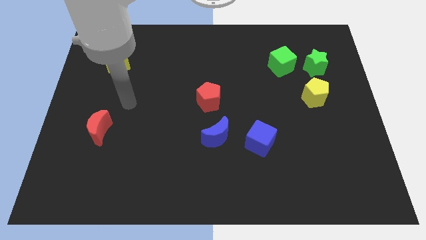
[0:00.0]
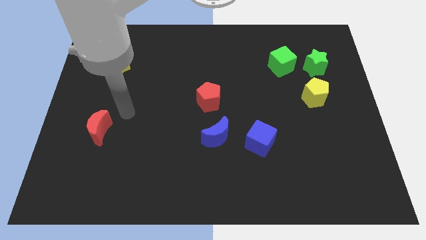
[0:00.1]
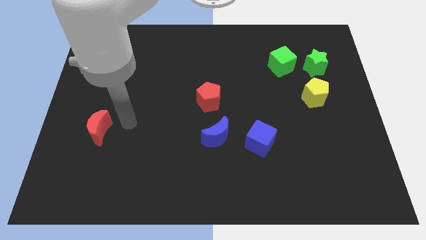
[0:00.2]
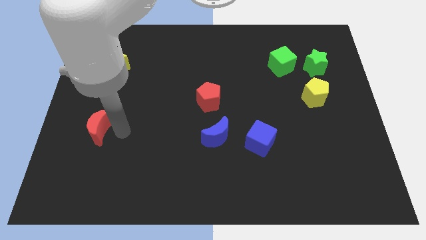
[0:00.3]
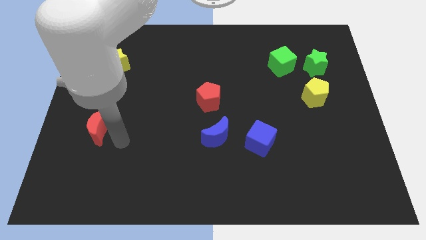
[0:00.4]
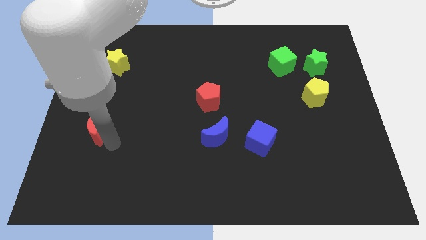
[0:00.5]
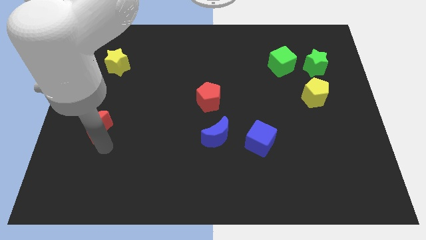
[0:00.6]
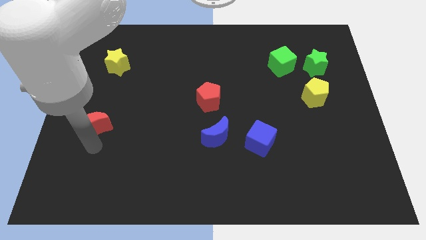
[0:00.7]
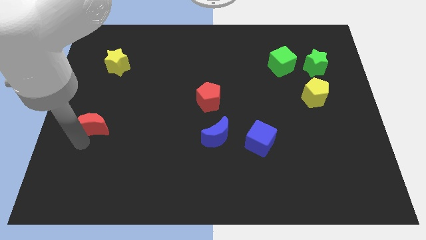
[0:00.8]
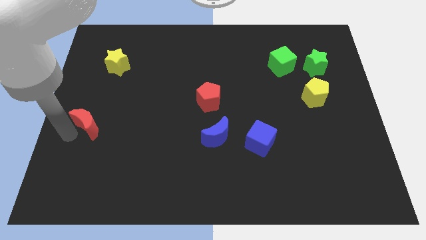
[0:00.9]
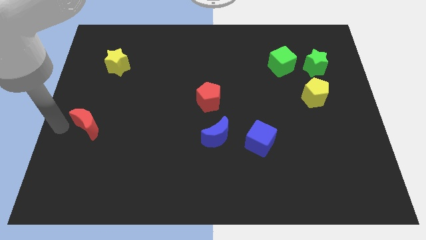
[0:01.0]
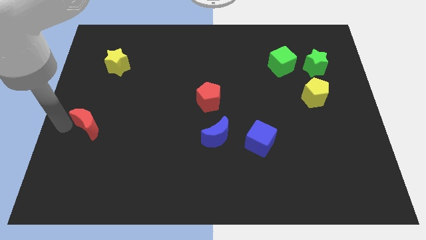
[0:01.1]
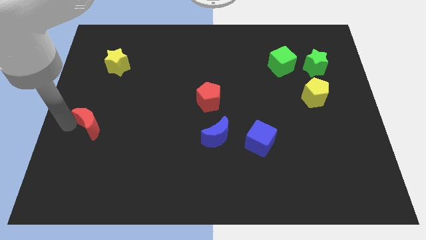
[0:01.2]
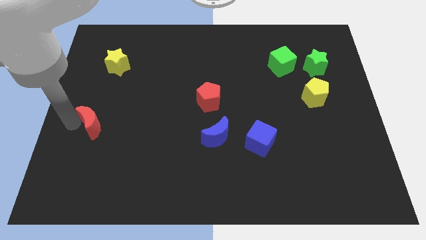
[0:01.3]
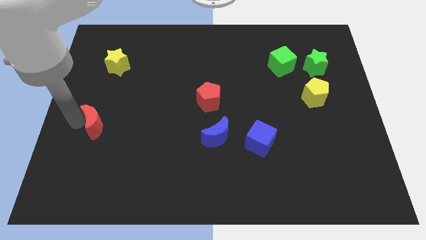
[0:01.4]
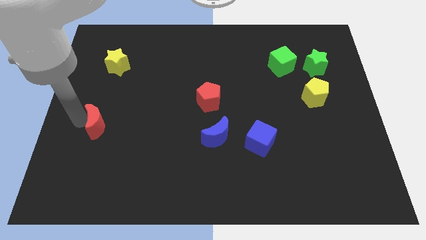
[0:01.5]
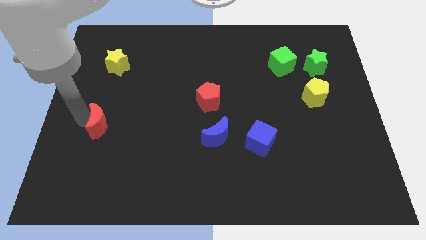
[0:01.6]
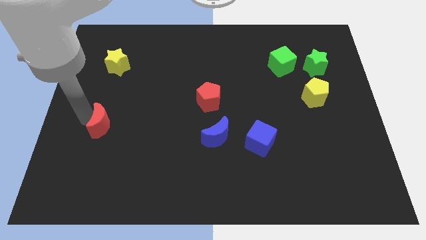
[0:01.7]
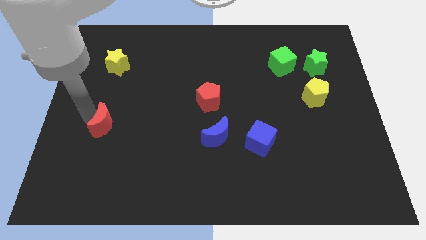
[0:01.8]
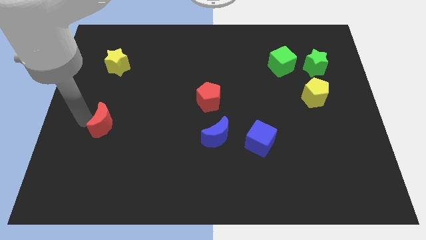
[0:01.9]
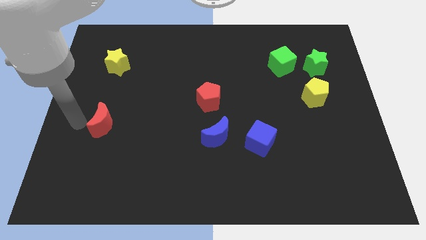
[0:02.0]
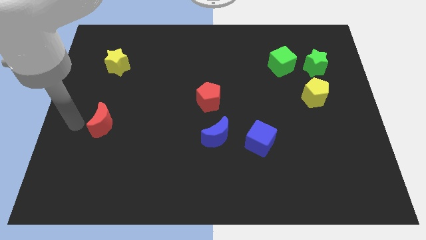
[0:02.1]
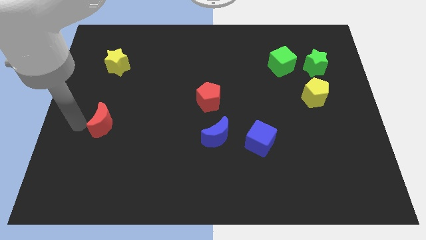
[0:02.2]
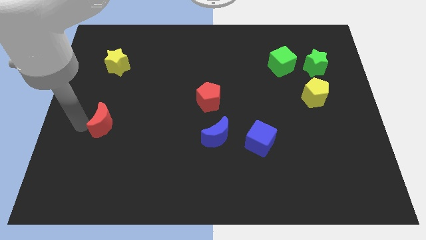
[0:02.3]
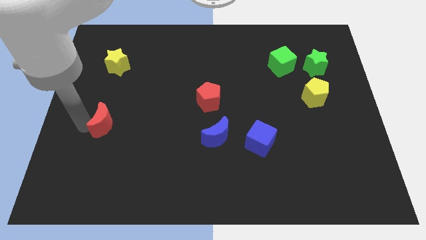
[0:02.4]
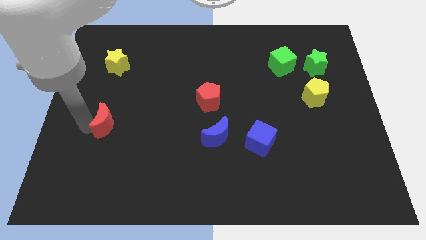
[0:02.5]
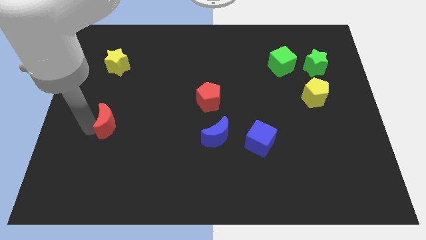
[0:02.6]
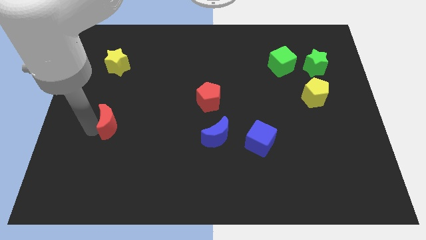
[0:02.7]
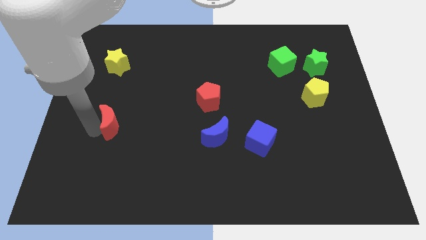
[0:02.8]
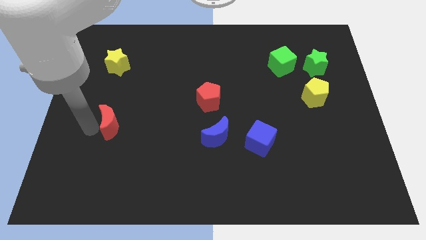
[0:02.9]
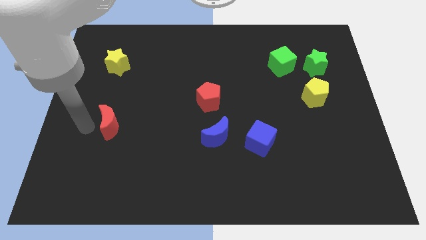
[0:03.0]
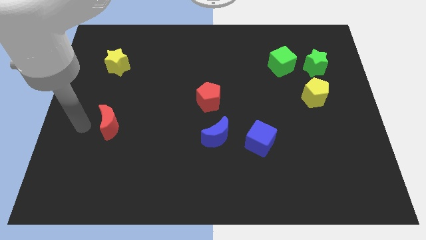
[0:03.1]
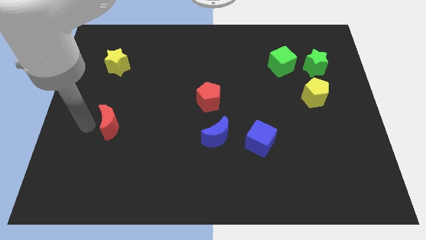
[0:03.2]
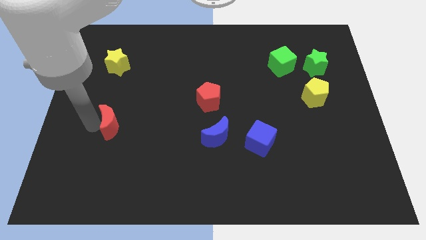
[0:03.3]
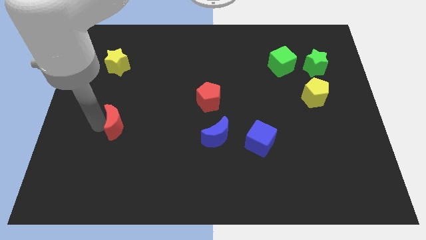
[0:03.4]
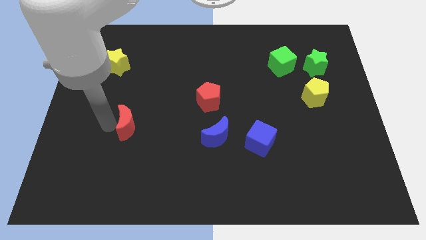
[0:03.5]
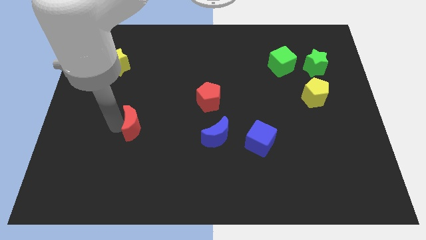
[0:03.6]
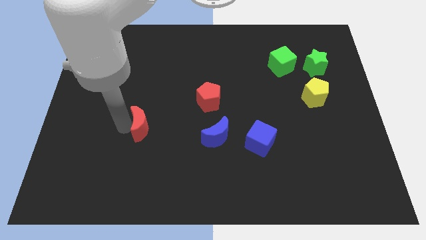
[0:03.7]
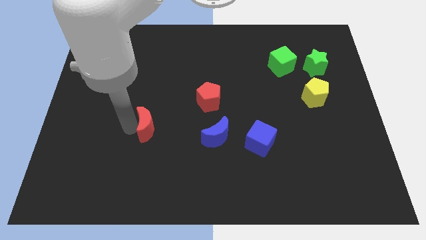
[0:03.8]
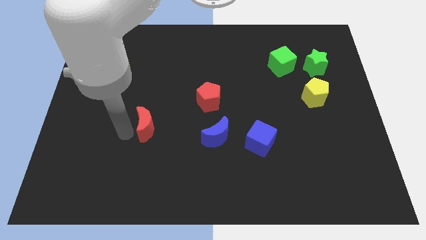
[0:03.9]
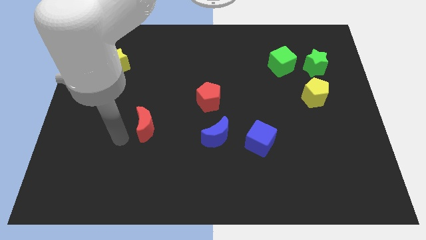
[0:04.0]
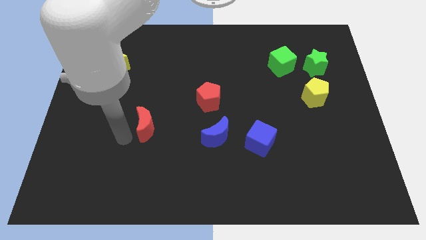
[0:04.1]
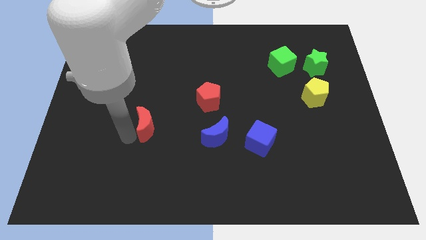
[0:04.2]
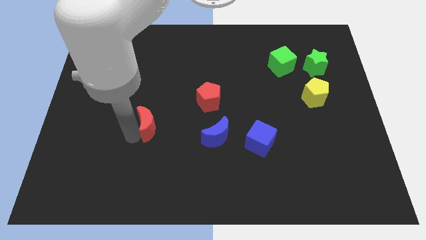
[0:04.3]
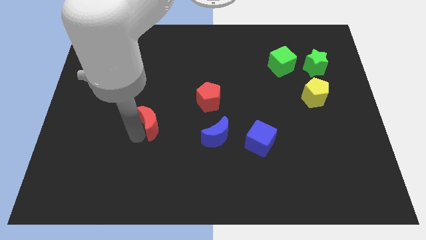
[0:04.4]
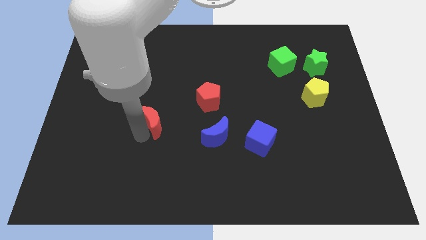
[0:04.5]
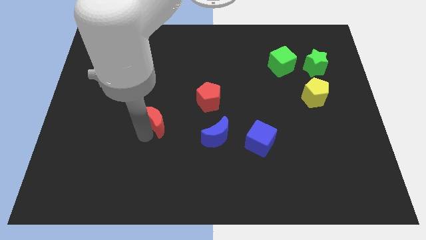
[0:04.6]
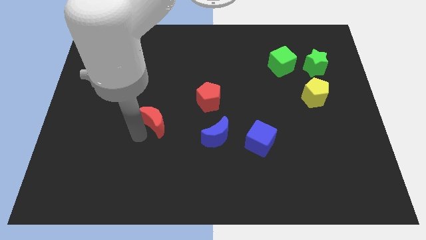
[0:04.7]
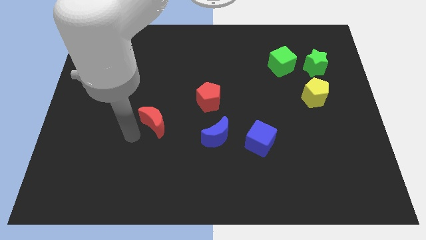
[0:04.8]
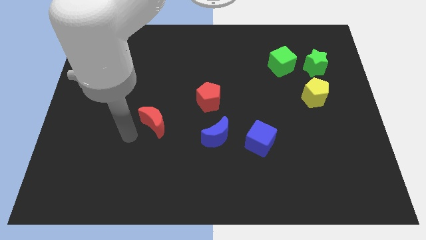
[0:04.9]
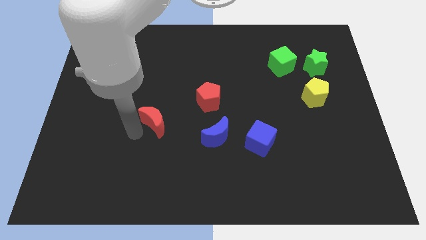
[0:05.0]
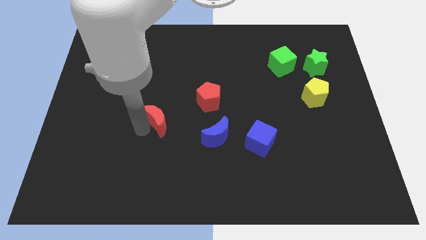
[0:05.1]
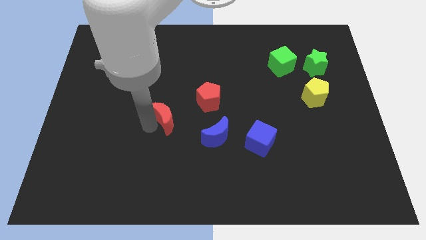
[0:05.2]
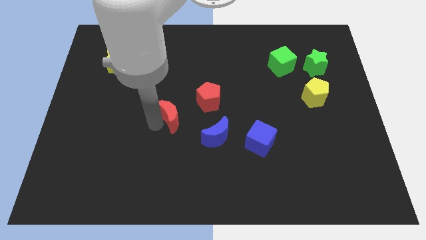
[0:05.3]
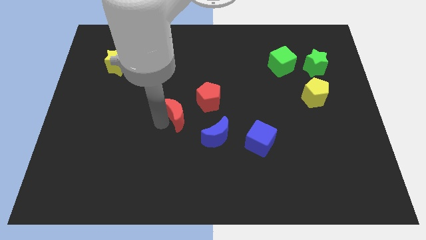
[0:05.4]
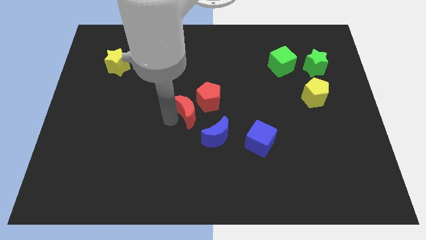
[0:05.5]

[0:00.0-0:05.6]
put the red moon close to the red pentagon

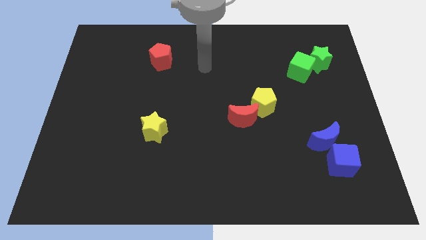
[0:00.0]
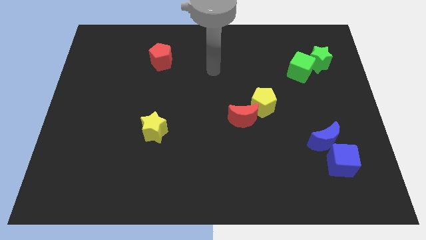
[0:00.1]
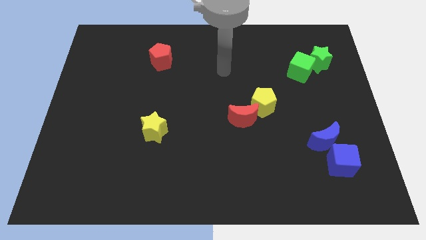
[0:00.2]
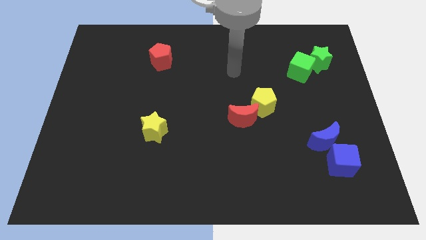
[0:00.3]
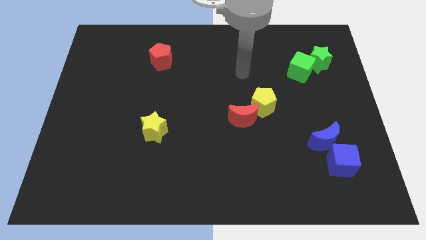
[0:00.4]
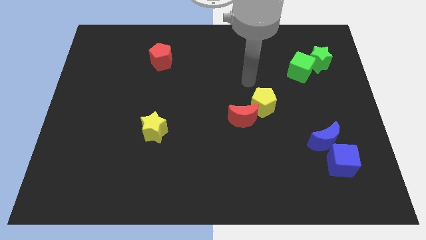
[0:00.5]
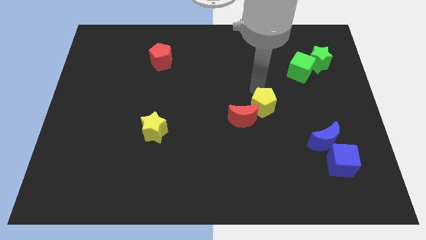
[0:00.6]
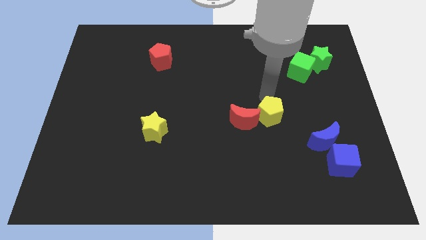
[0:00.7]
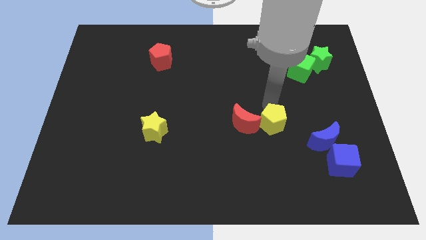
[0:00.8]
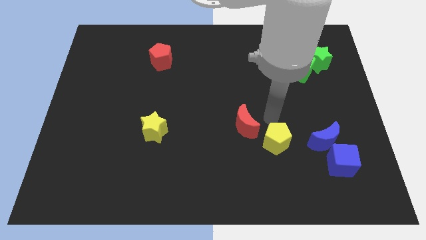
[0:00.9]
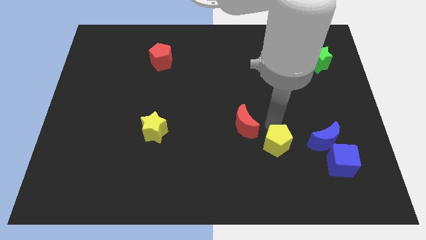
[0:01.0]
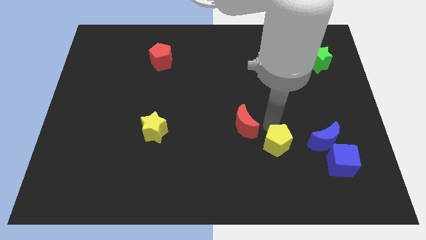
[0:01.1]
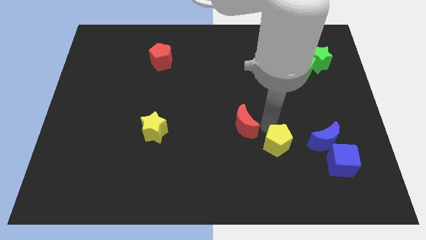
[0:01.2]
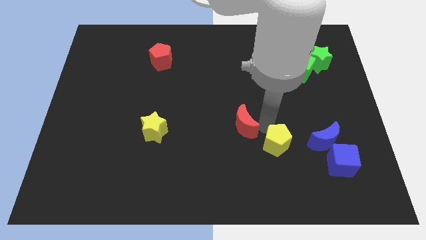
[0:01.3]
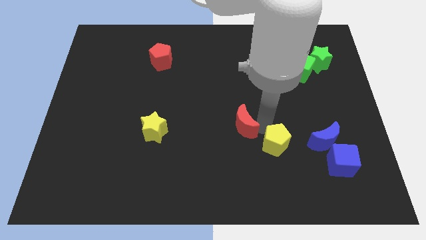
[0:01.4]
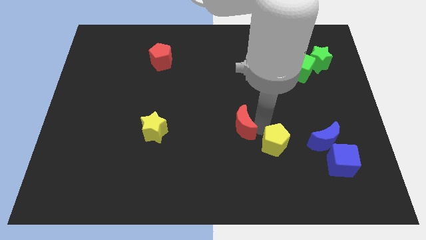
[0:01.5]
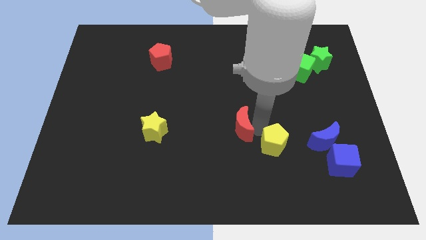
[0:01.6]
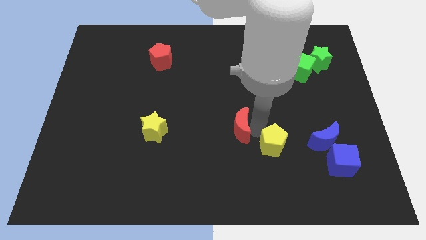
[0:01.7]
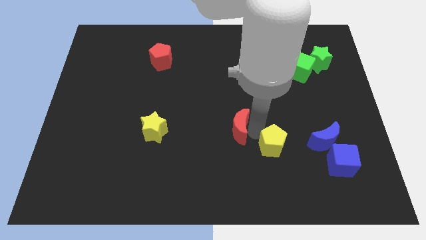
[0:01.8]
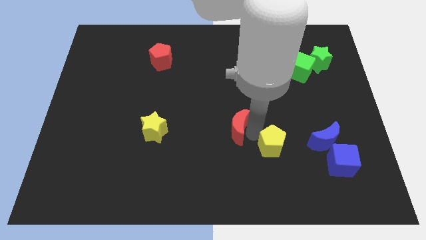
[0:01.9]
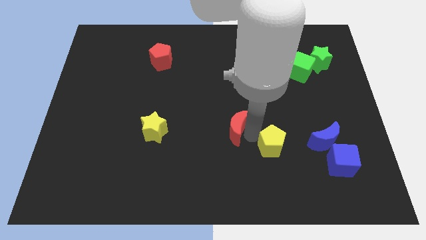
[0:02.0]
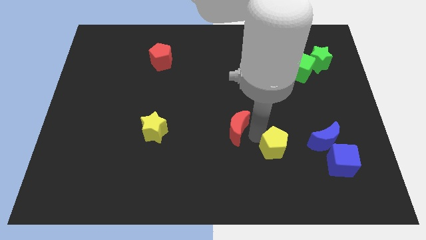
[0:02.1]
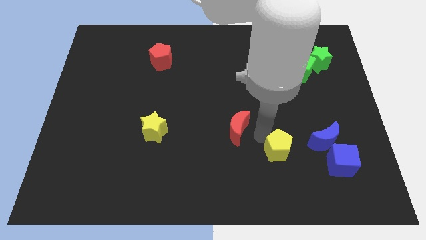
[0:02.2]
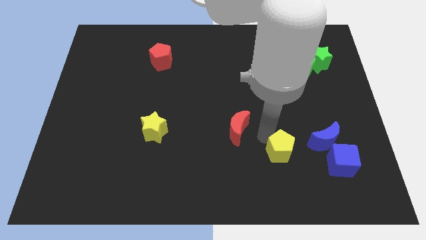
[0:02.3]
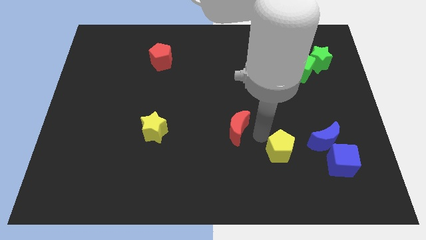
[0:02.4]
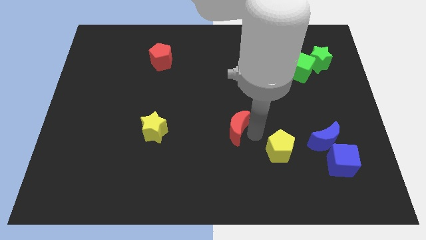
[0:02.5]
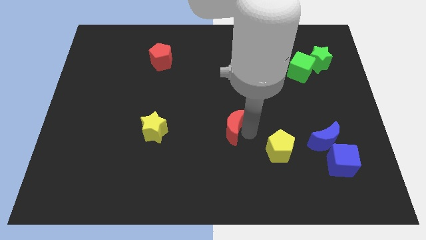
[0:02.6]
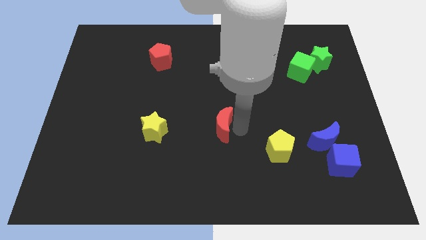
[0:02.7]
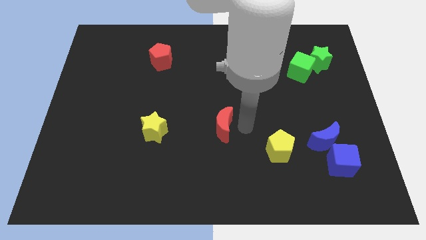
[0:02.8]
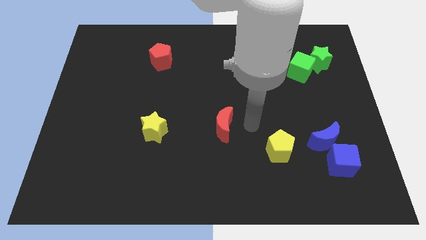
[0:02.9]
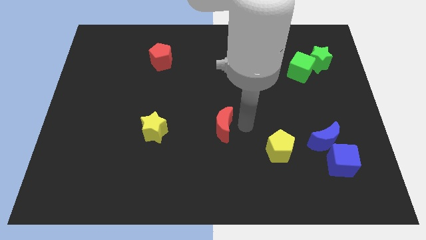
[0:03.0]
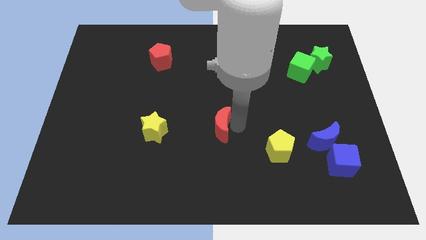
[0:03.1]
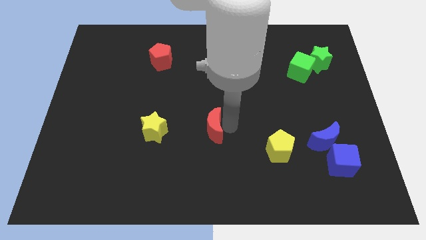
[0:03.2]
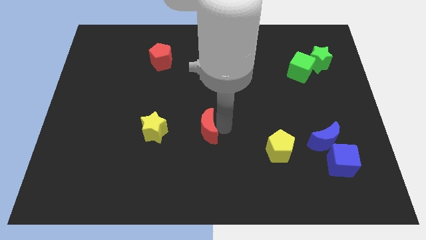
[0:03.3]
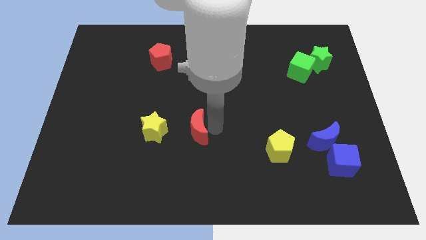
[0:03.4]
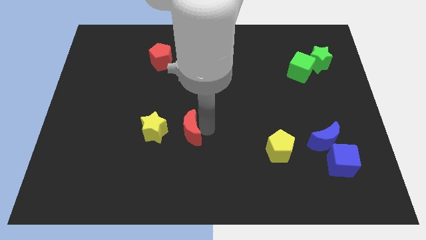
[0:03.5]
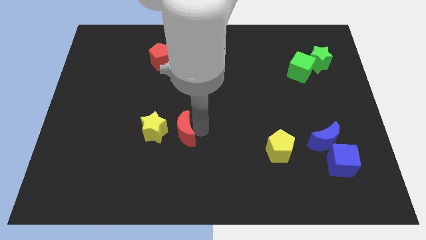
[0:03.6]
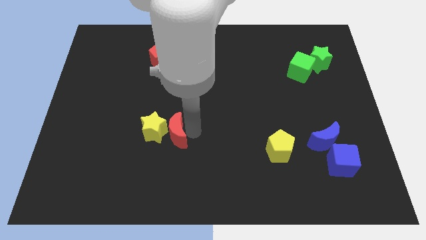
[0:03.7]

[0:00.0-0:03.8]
move the red moon to the yellow star
